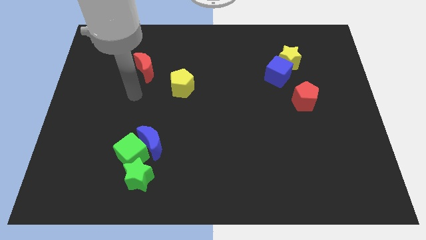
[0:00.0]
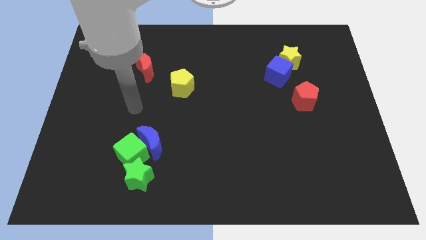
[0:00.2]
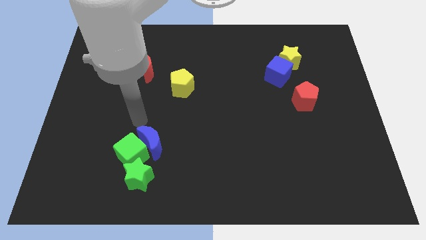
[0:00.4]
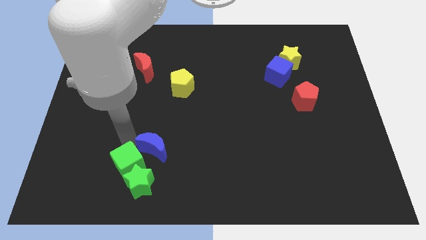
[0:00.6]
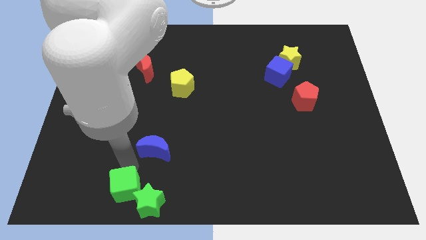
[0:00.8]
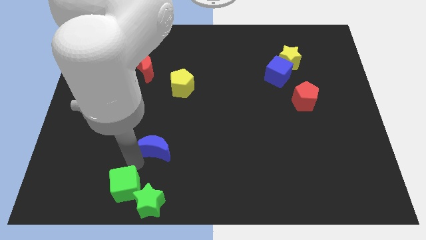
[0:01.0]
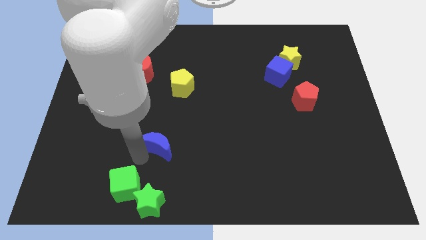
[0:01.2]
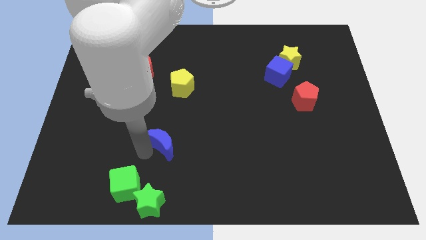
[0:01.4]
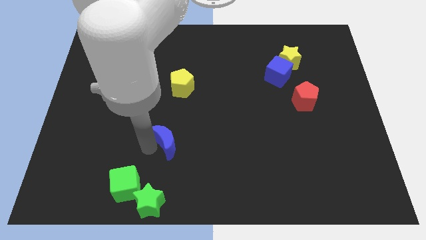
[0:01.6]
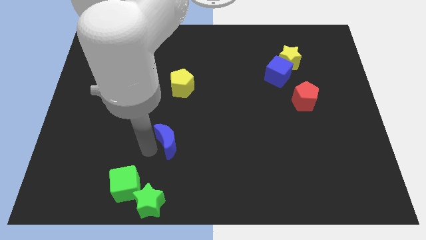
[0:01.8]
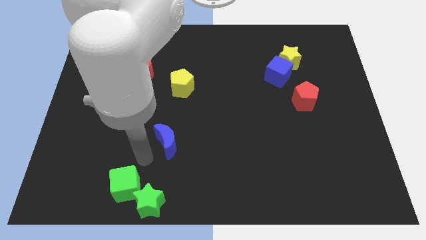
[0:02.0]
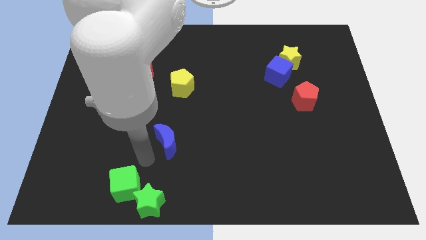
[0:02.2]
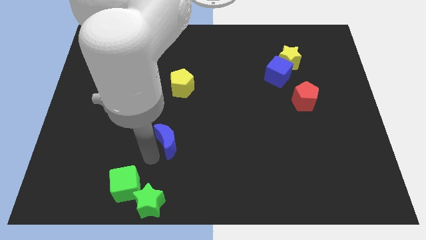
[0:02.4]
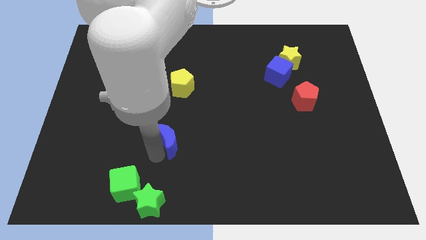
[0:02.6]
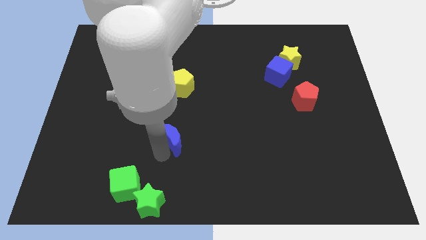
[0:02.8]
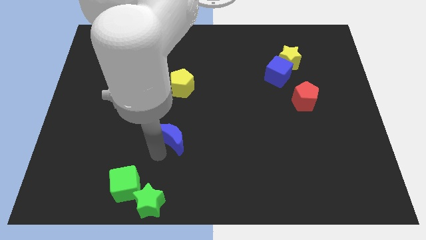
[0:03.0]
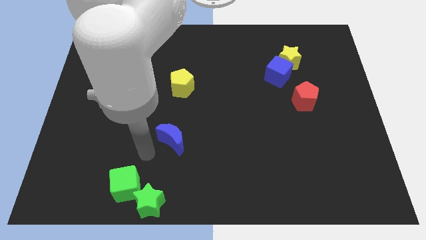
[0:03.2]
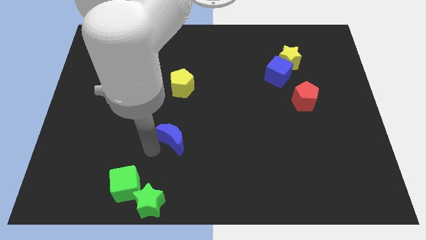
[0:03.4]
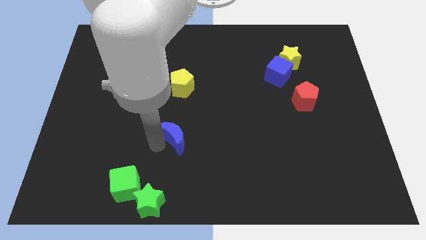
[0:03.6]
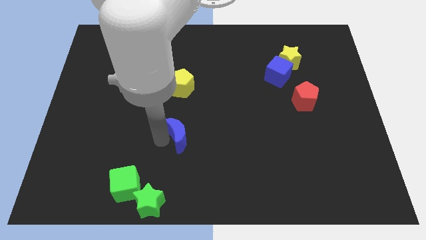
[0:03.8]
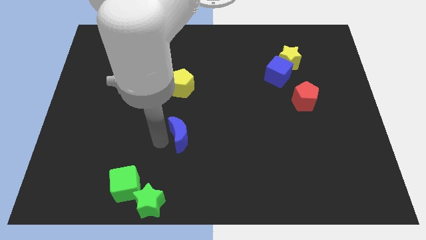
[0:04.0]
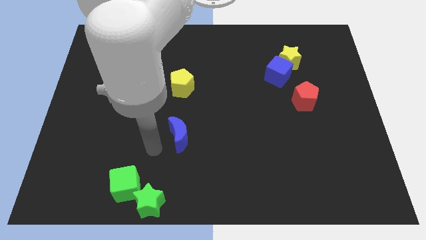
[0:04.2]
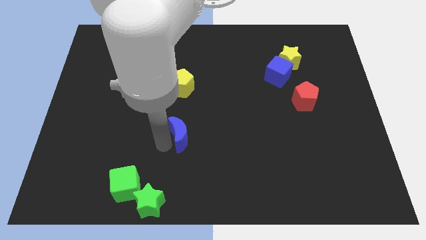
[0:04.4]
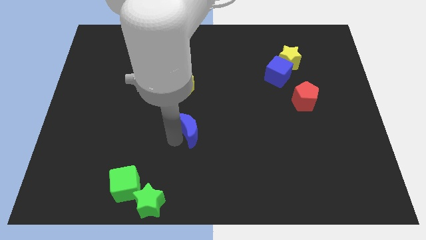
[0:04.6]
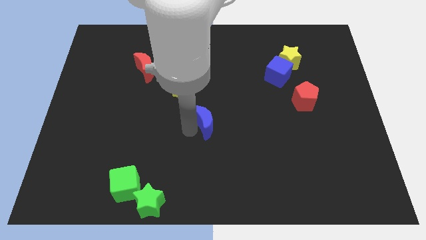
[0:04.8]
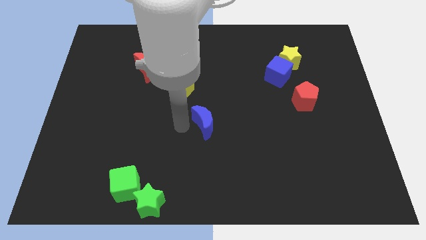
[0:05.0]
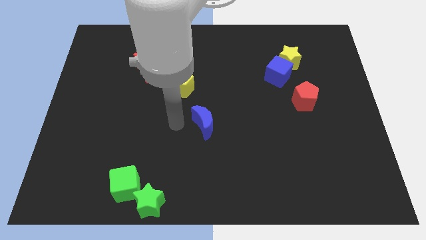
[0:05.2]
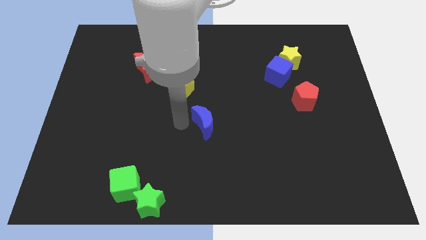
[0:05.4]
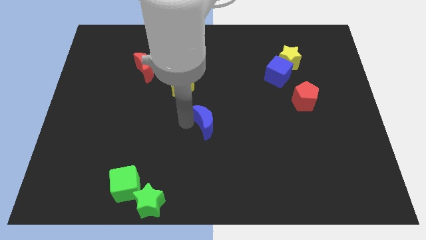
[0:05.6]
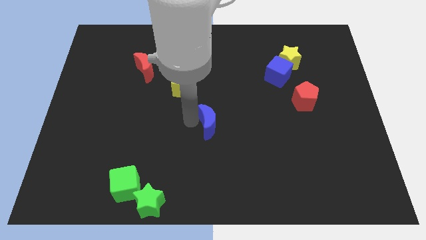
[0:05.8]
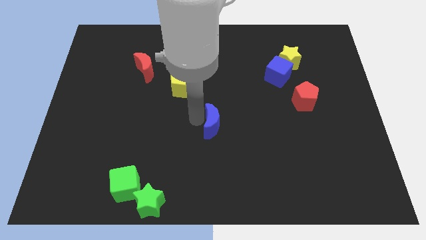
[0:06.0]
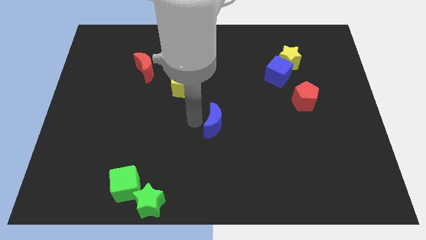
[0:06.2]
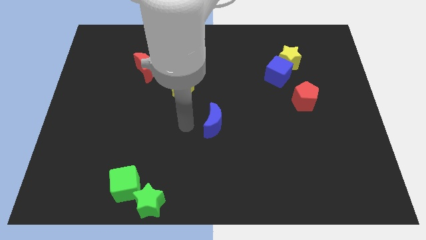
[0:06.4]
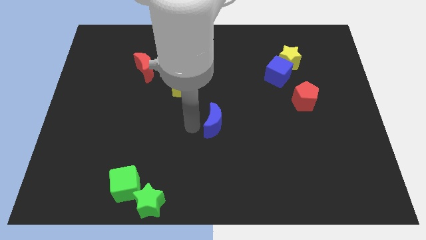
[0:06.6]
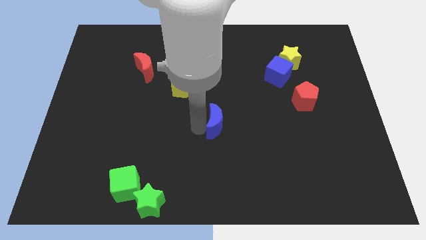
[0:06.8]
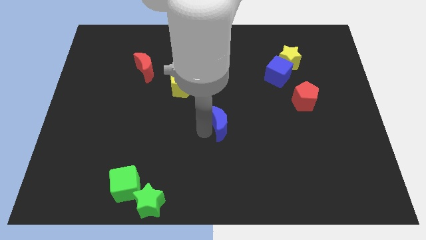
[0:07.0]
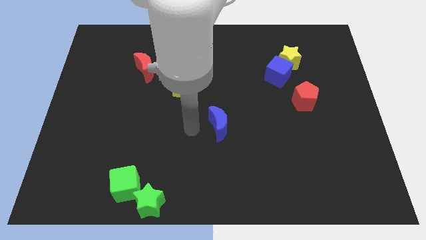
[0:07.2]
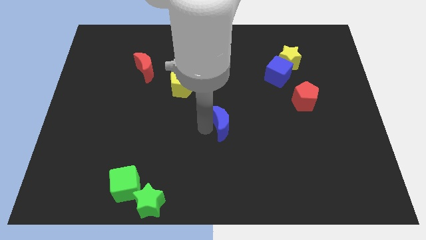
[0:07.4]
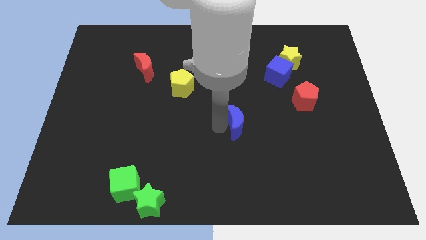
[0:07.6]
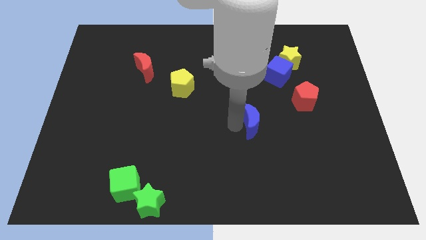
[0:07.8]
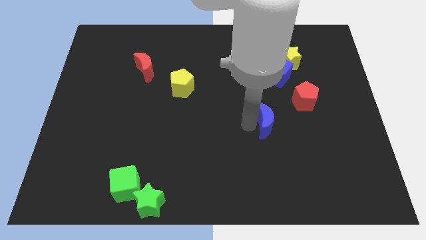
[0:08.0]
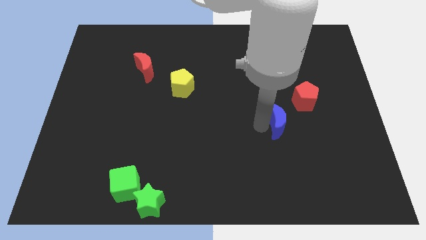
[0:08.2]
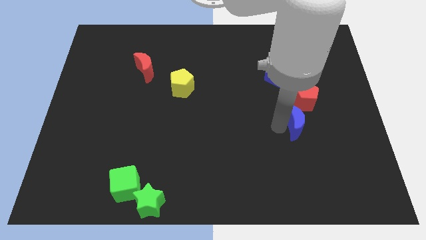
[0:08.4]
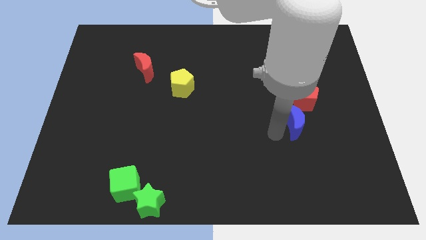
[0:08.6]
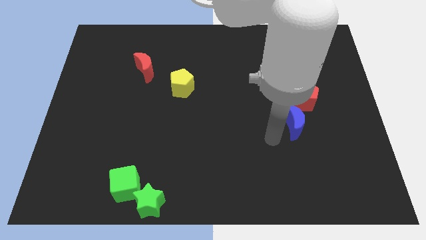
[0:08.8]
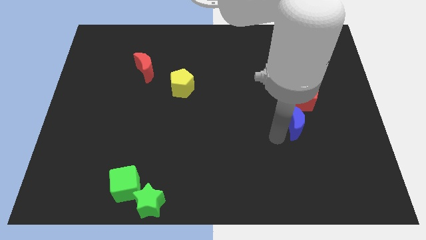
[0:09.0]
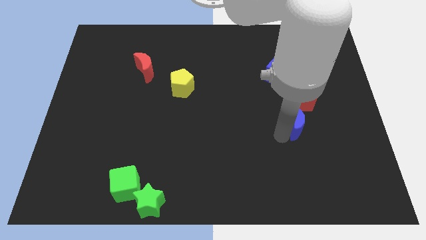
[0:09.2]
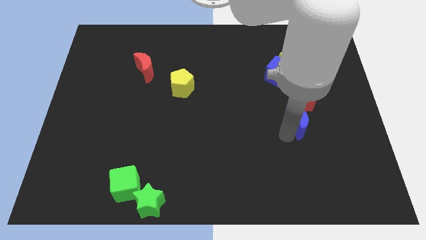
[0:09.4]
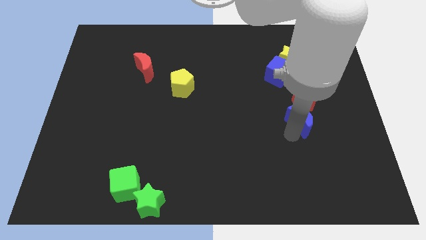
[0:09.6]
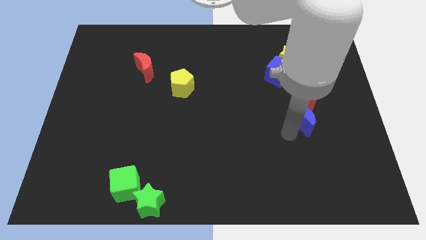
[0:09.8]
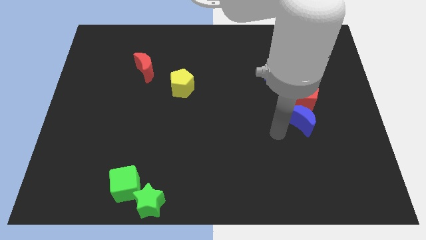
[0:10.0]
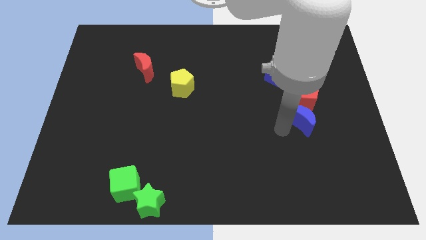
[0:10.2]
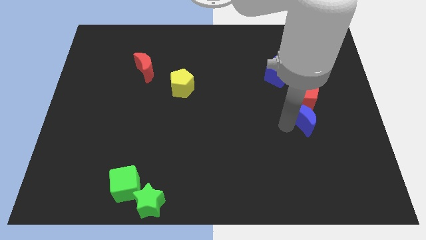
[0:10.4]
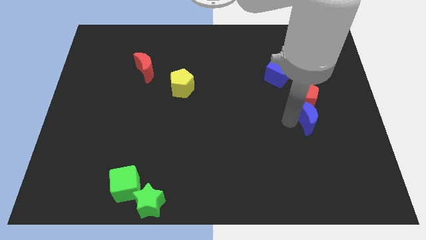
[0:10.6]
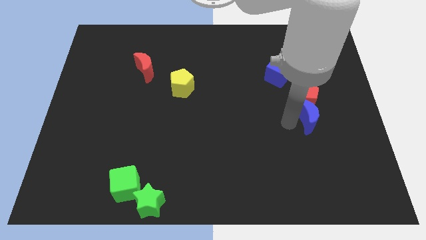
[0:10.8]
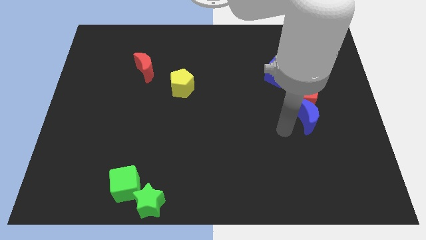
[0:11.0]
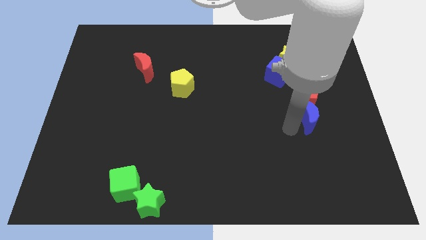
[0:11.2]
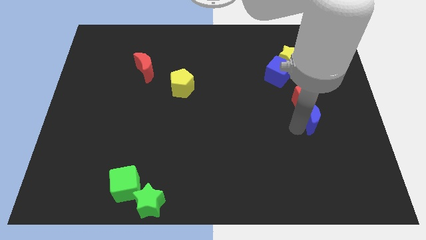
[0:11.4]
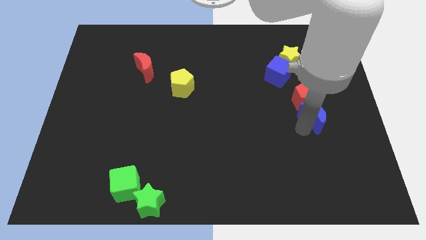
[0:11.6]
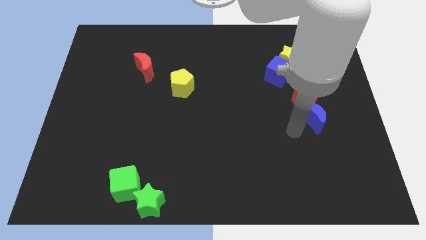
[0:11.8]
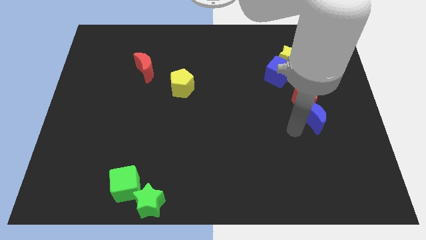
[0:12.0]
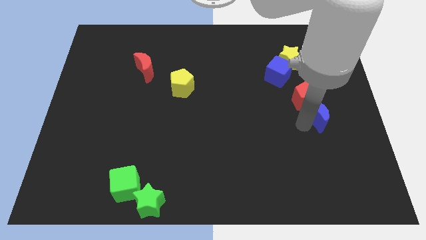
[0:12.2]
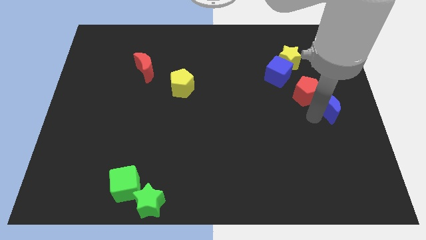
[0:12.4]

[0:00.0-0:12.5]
slide the blue moon to the right side

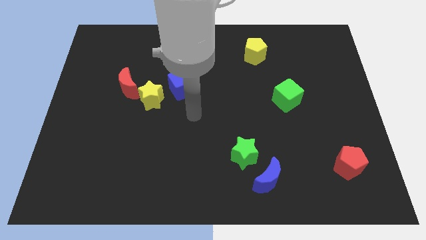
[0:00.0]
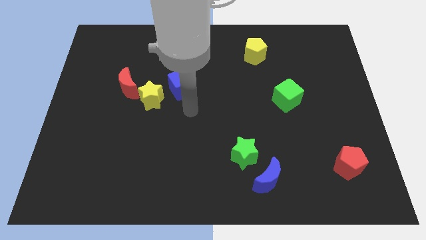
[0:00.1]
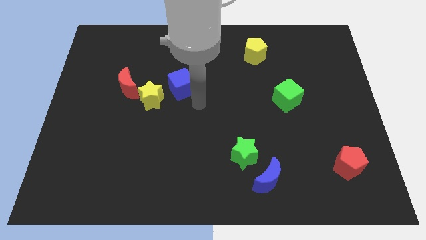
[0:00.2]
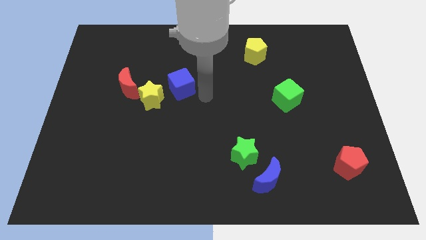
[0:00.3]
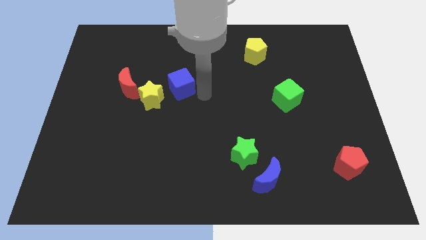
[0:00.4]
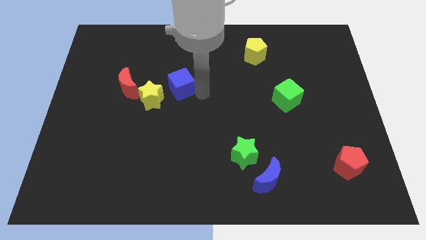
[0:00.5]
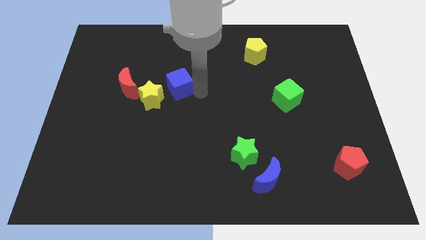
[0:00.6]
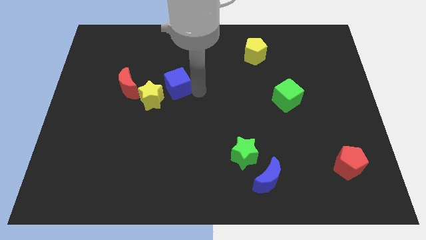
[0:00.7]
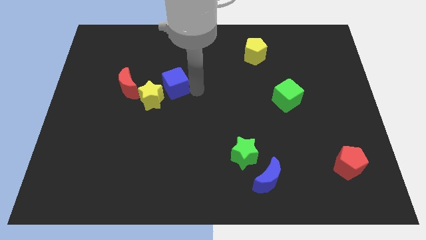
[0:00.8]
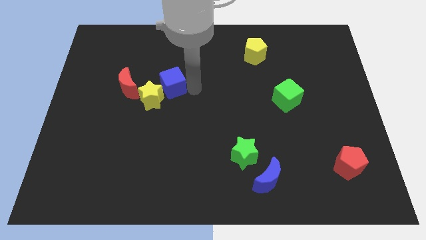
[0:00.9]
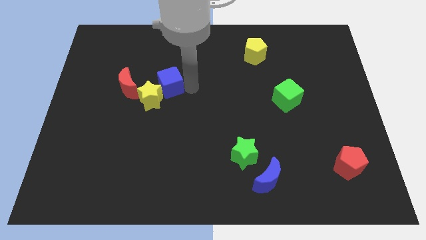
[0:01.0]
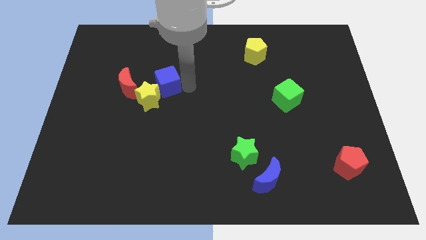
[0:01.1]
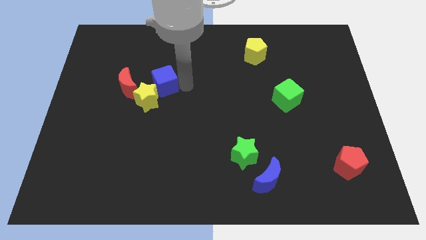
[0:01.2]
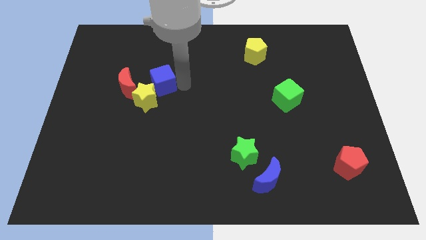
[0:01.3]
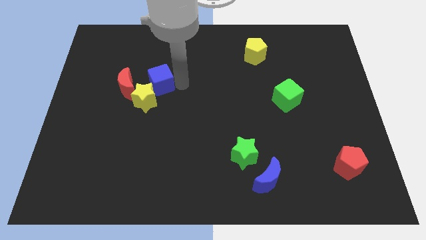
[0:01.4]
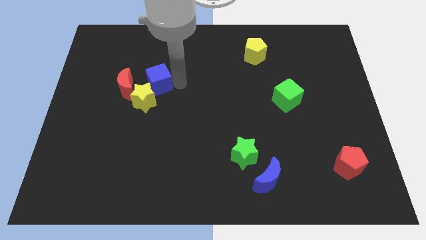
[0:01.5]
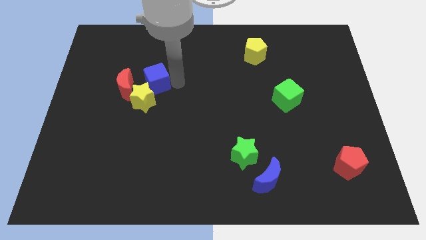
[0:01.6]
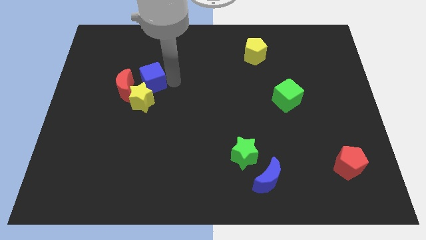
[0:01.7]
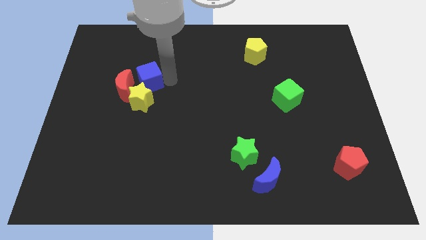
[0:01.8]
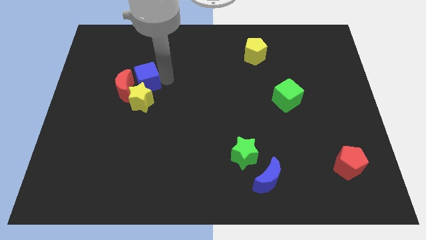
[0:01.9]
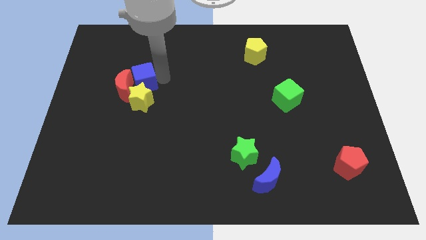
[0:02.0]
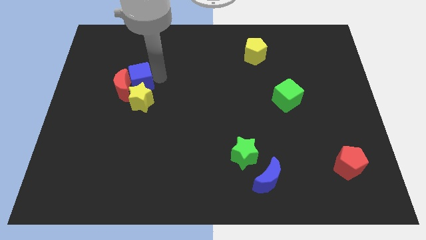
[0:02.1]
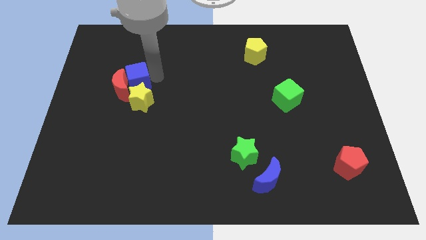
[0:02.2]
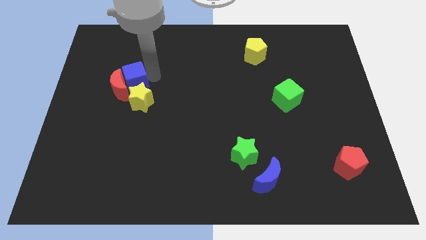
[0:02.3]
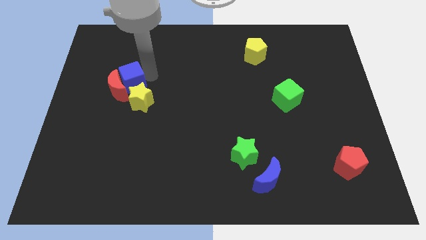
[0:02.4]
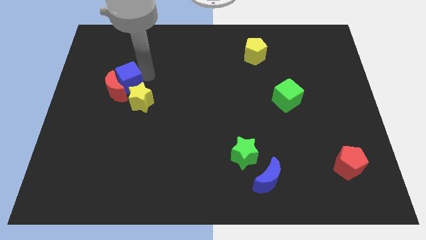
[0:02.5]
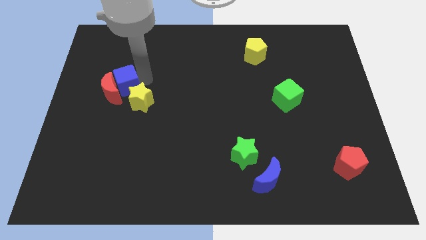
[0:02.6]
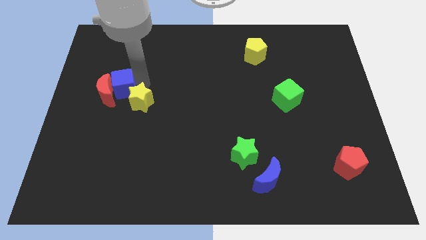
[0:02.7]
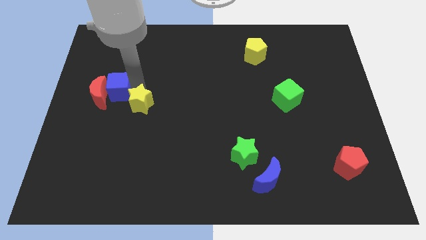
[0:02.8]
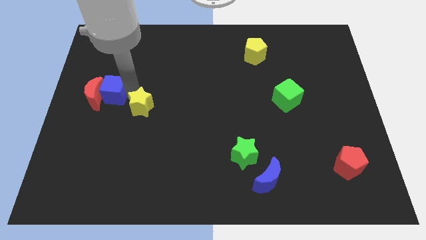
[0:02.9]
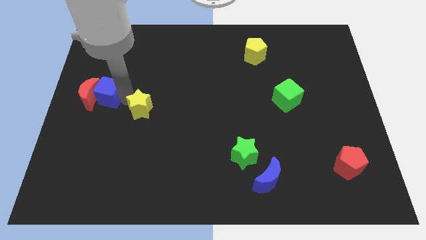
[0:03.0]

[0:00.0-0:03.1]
put the blue cube to the left side of the board
